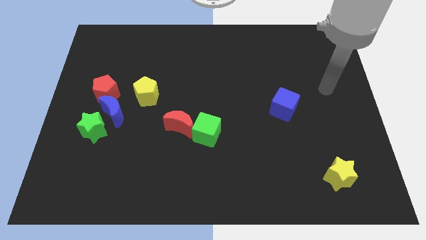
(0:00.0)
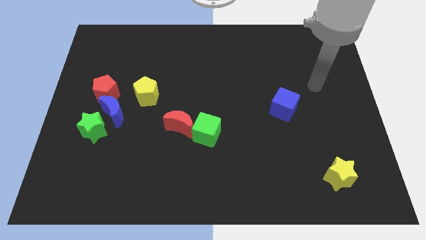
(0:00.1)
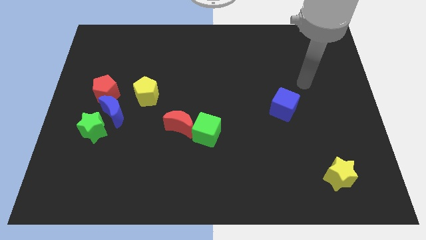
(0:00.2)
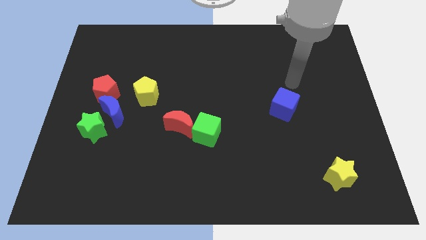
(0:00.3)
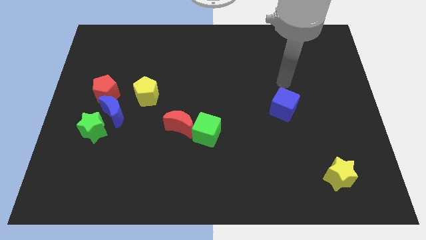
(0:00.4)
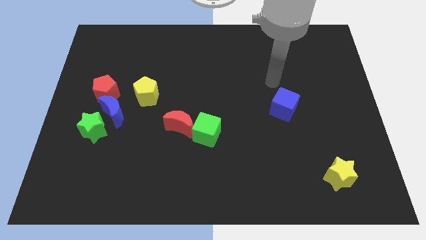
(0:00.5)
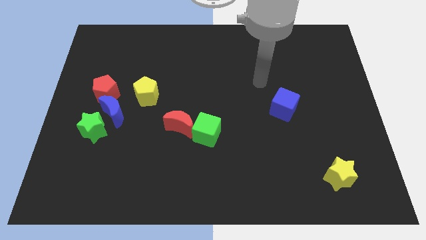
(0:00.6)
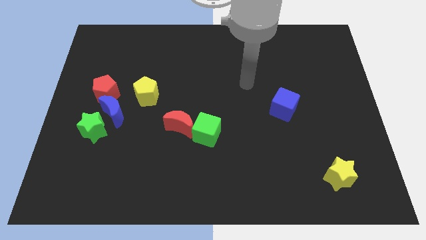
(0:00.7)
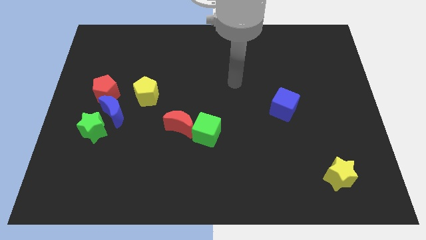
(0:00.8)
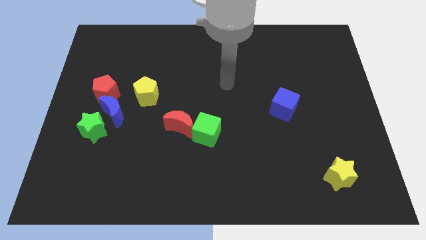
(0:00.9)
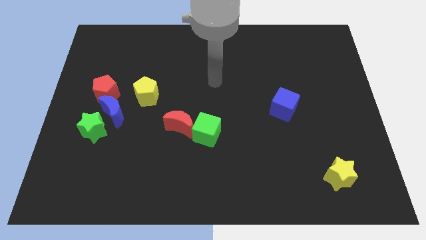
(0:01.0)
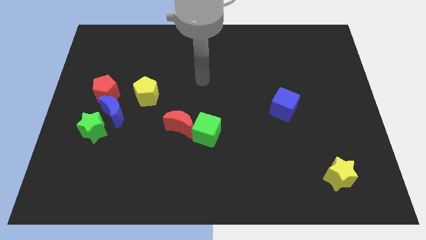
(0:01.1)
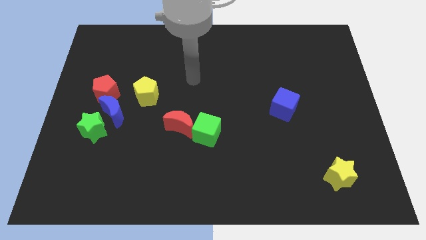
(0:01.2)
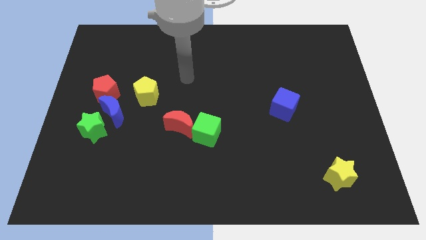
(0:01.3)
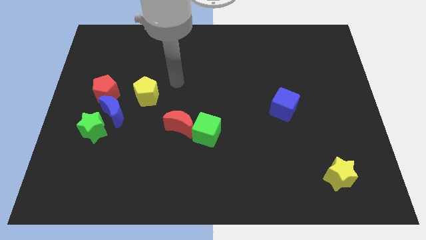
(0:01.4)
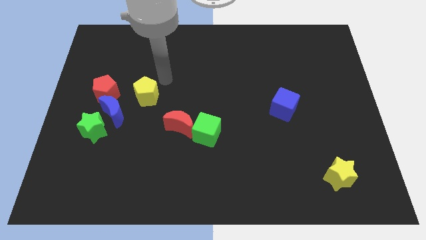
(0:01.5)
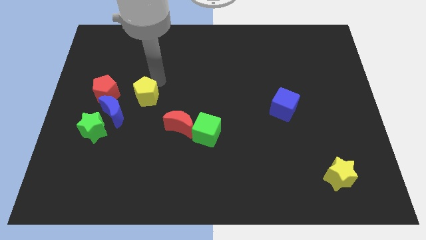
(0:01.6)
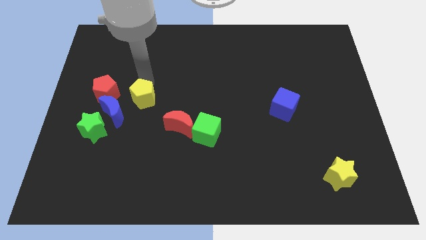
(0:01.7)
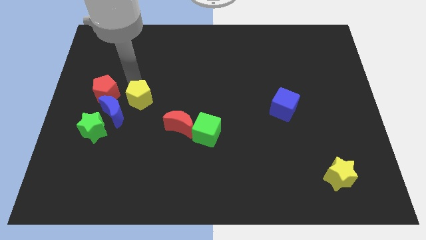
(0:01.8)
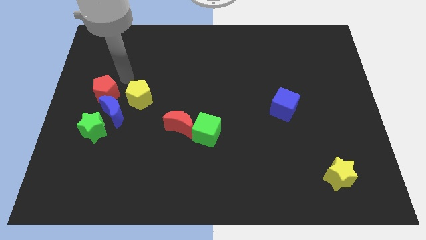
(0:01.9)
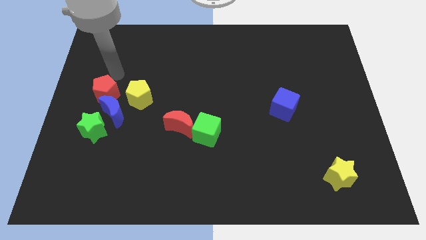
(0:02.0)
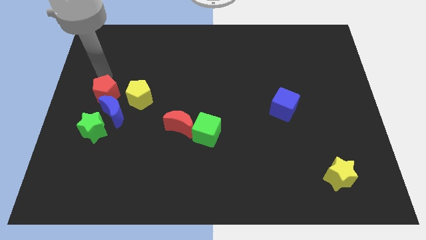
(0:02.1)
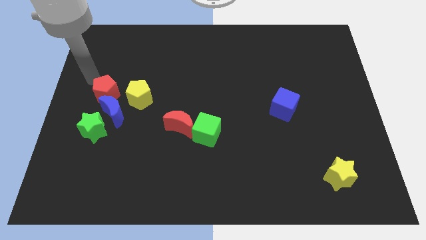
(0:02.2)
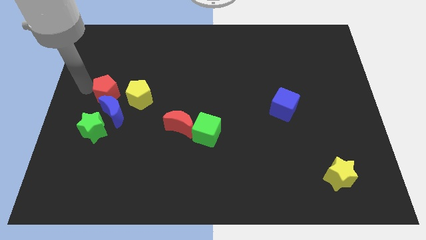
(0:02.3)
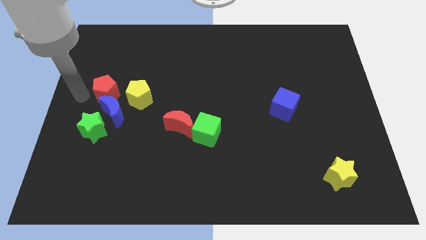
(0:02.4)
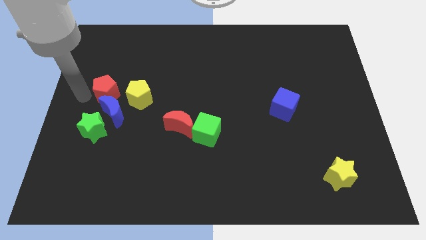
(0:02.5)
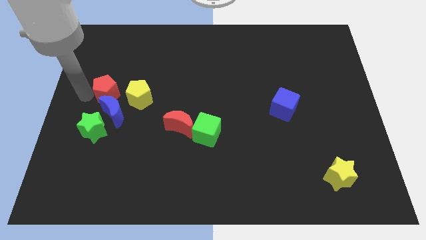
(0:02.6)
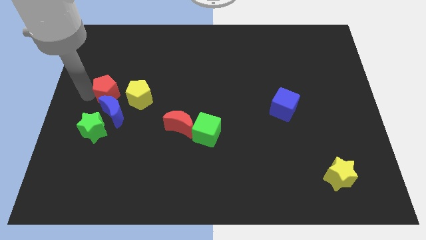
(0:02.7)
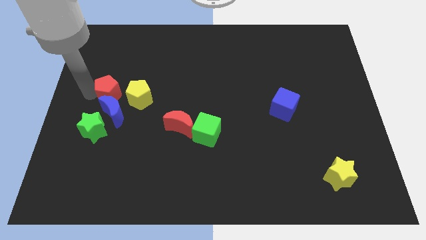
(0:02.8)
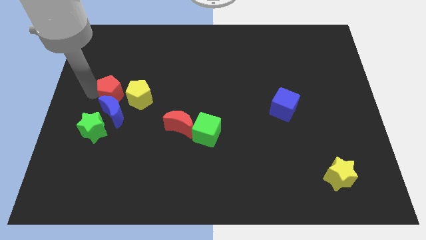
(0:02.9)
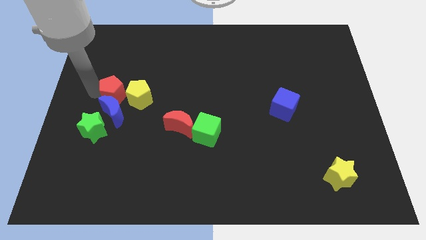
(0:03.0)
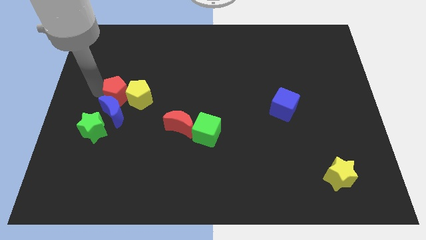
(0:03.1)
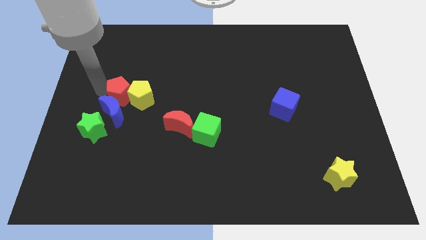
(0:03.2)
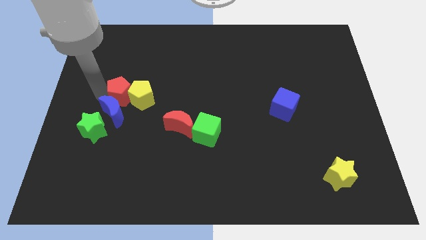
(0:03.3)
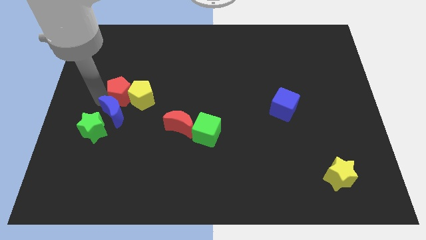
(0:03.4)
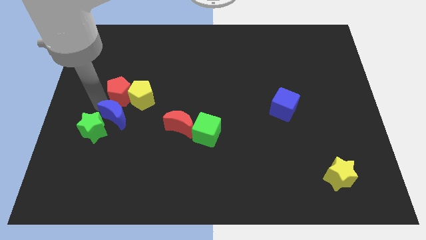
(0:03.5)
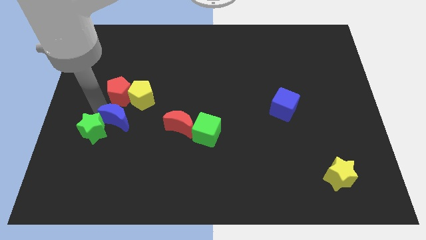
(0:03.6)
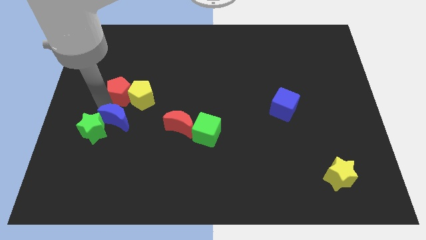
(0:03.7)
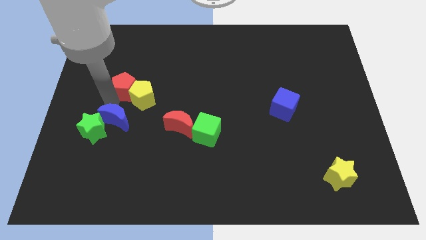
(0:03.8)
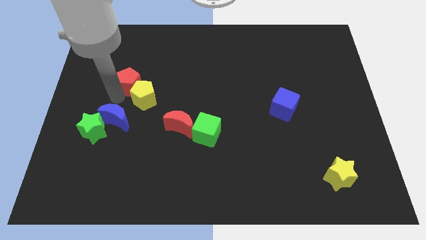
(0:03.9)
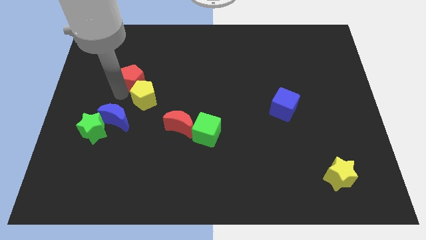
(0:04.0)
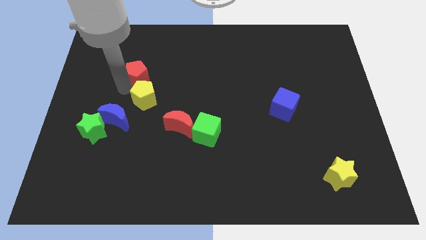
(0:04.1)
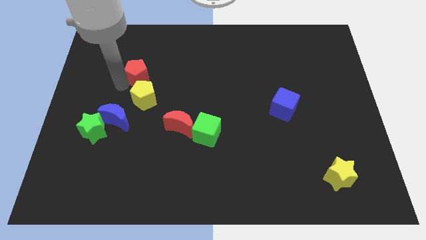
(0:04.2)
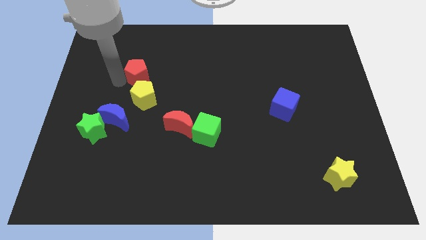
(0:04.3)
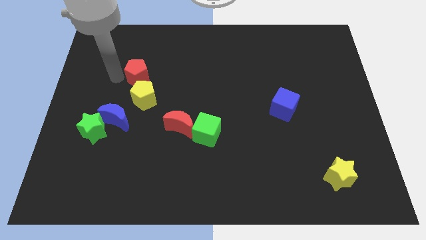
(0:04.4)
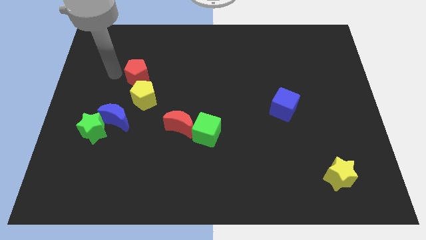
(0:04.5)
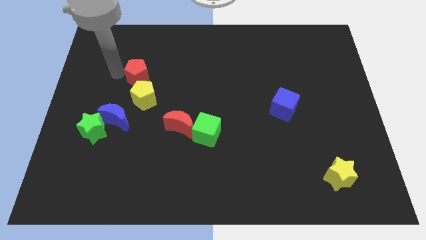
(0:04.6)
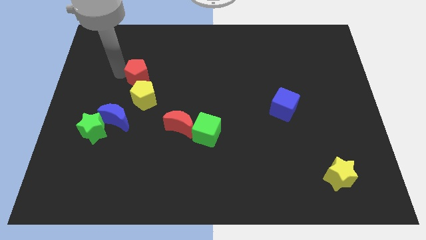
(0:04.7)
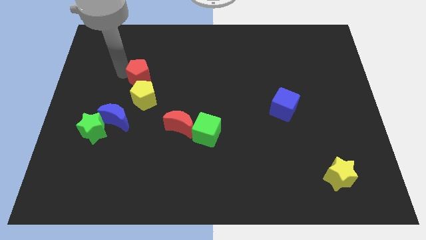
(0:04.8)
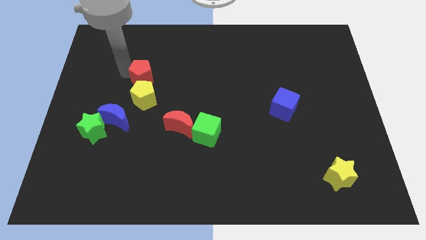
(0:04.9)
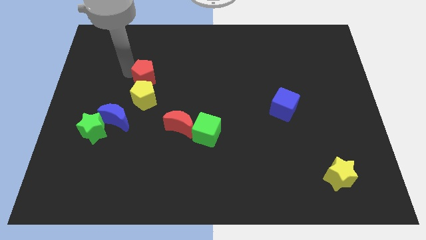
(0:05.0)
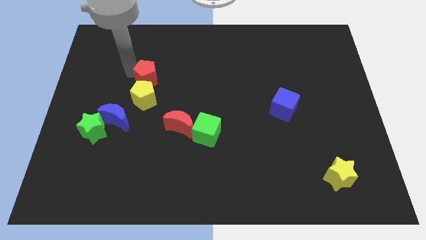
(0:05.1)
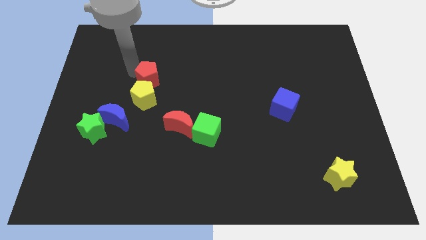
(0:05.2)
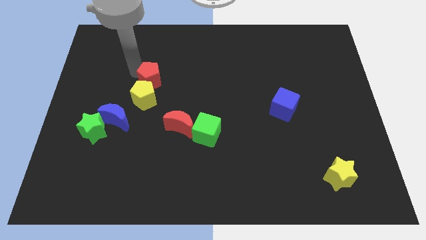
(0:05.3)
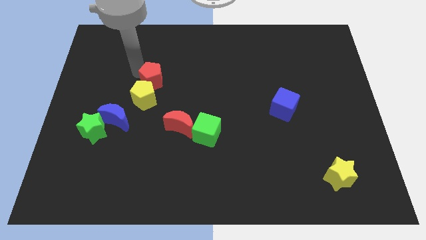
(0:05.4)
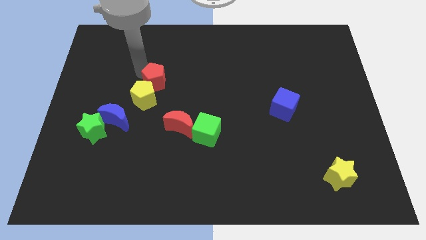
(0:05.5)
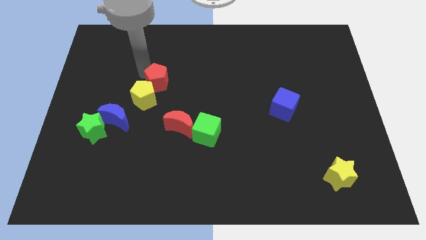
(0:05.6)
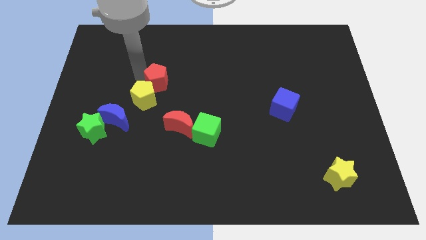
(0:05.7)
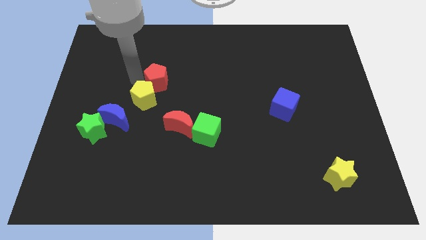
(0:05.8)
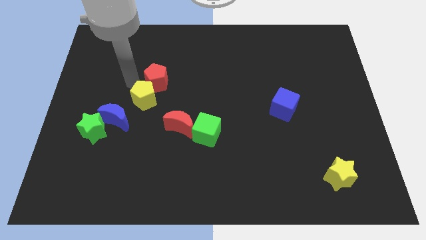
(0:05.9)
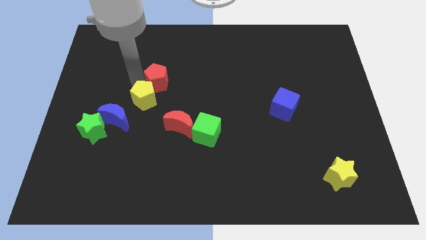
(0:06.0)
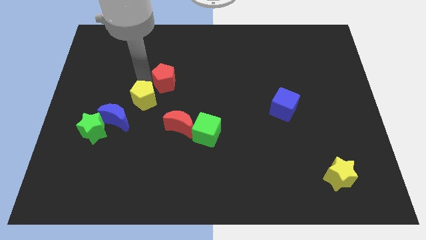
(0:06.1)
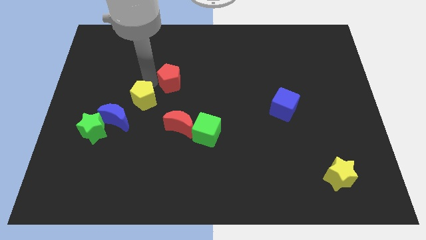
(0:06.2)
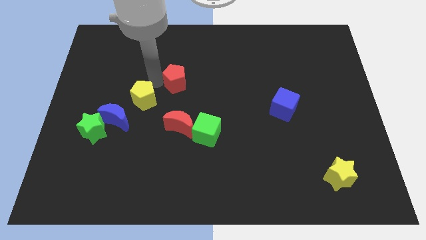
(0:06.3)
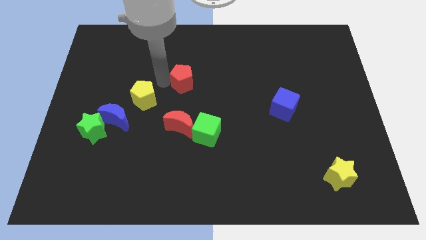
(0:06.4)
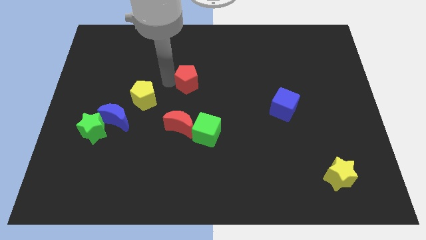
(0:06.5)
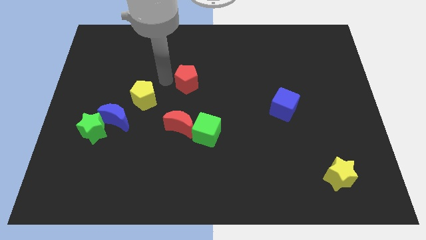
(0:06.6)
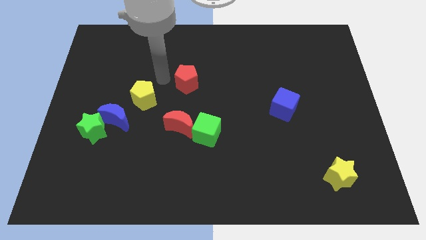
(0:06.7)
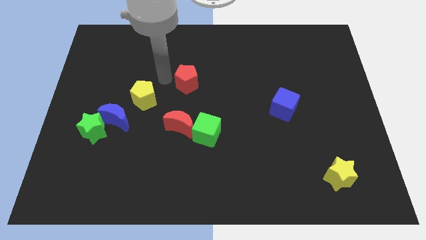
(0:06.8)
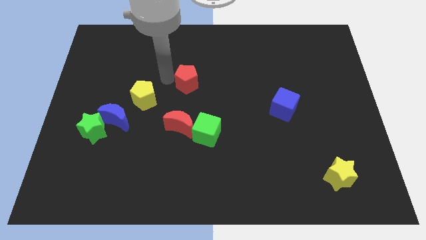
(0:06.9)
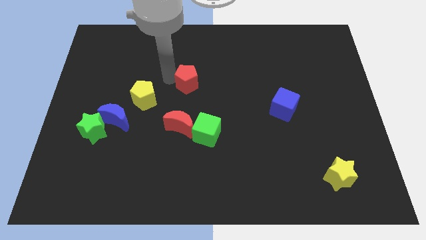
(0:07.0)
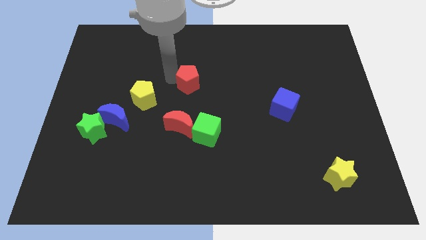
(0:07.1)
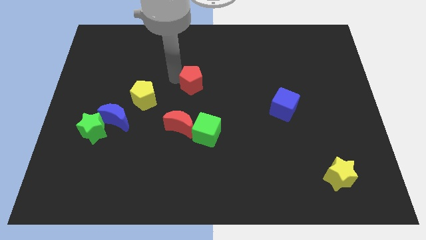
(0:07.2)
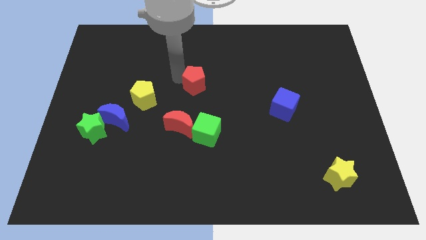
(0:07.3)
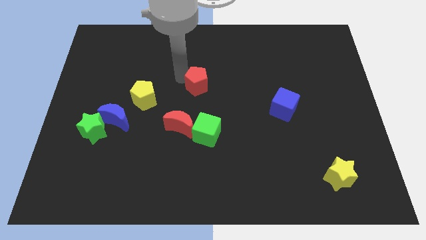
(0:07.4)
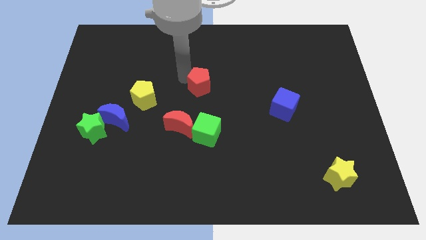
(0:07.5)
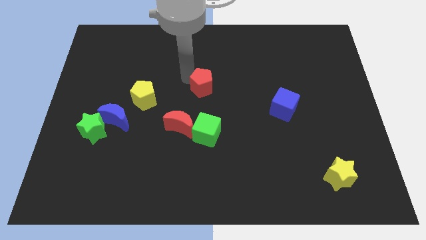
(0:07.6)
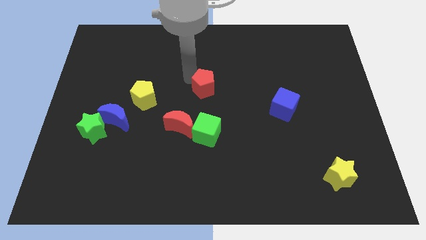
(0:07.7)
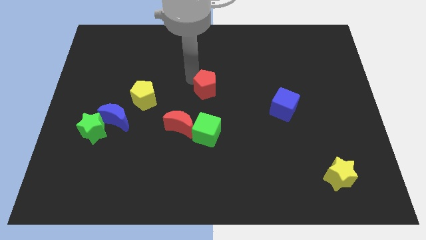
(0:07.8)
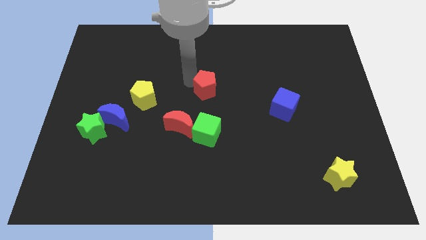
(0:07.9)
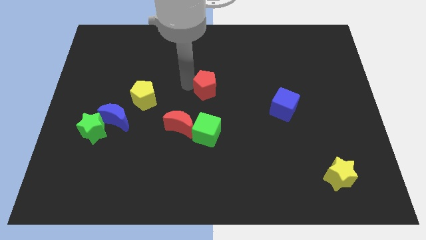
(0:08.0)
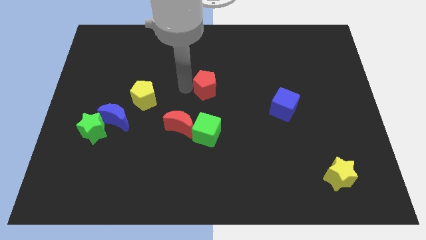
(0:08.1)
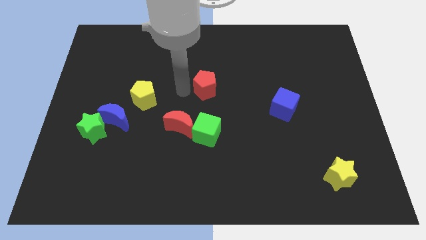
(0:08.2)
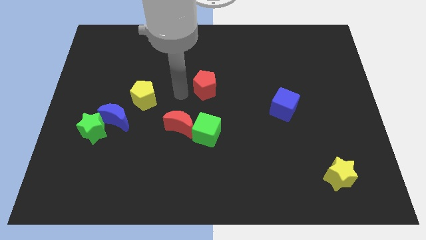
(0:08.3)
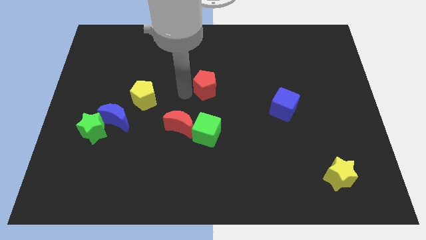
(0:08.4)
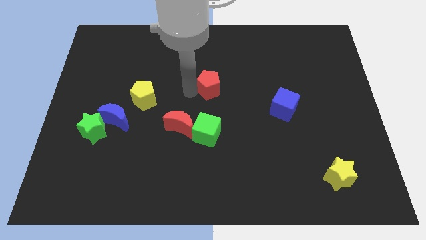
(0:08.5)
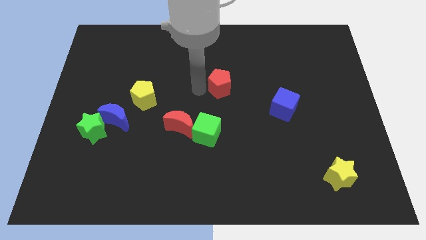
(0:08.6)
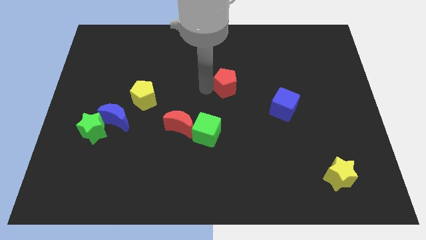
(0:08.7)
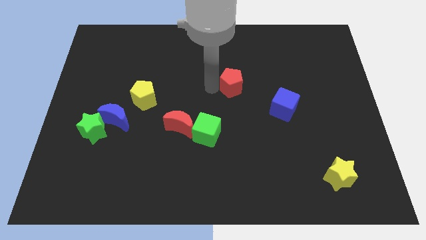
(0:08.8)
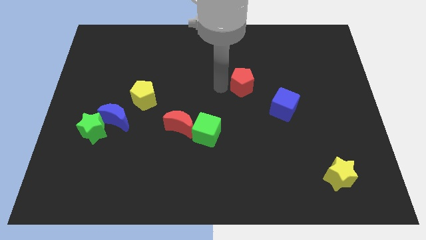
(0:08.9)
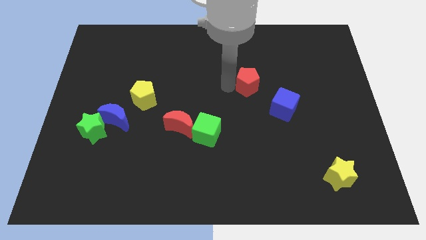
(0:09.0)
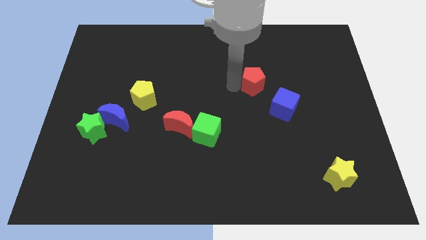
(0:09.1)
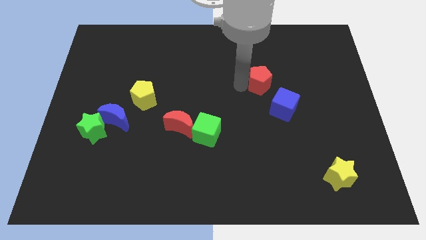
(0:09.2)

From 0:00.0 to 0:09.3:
put the red pentagon to the top of the blue cube
